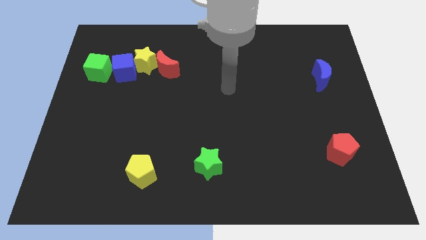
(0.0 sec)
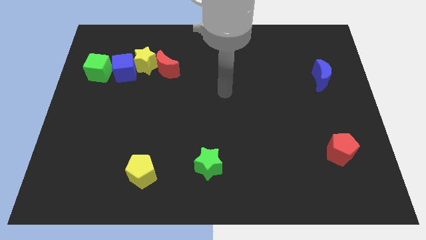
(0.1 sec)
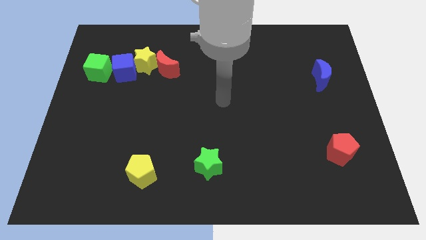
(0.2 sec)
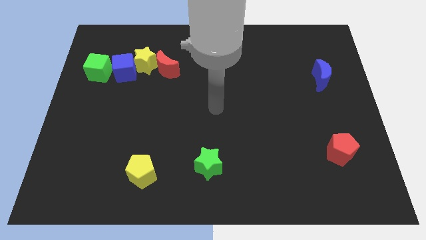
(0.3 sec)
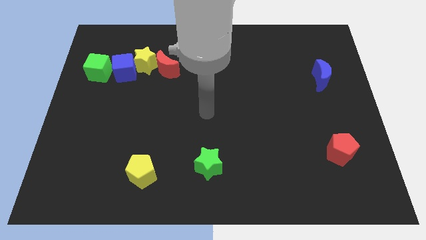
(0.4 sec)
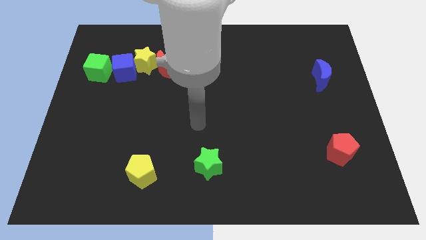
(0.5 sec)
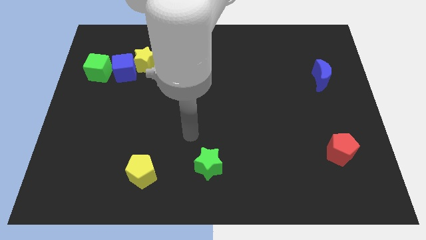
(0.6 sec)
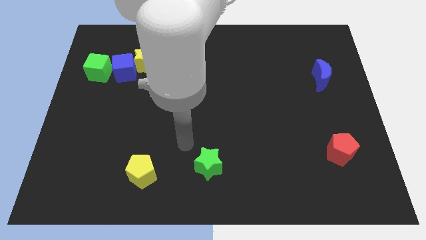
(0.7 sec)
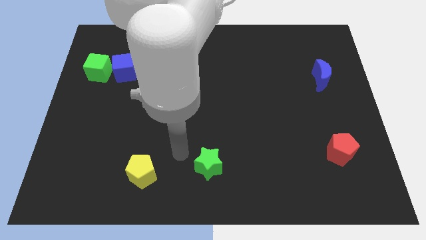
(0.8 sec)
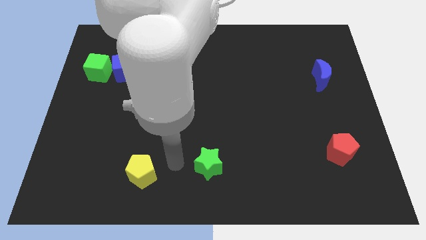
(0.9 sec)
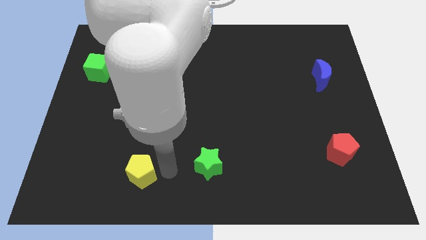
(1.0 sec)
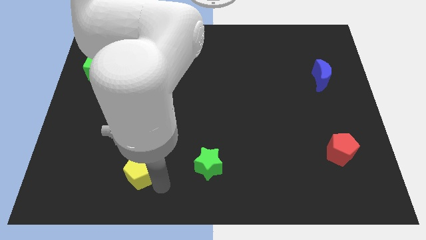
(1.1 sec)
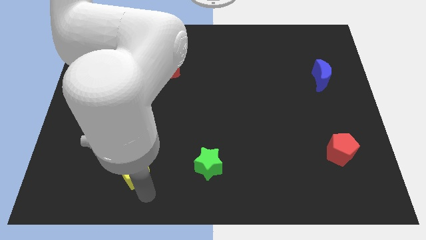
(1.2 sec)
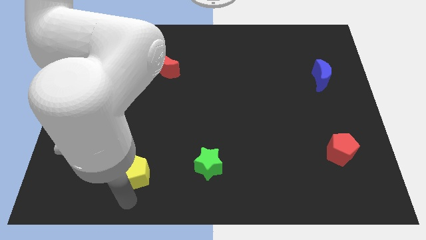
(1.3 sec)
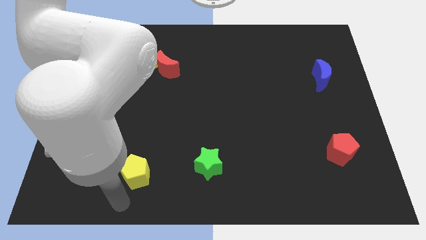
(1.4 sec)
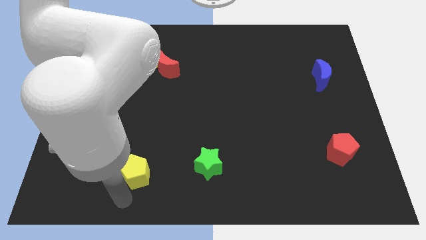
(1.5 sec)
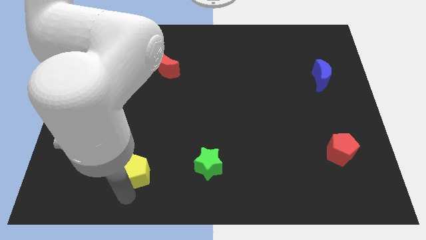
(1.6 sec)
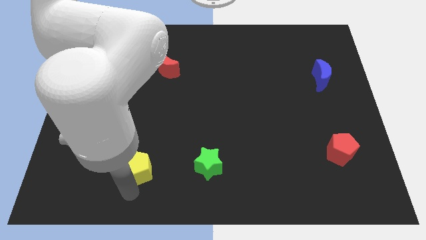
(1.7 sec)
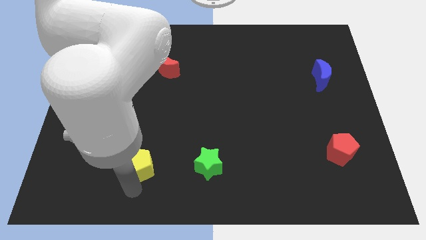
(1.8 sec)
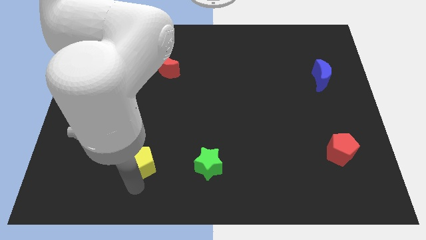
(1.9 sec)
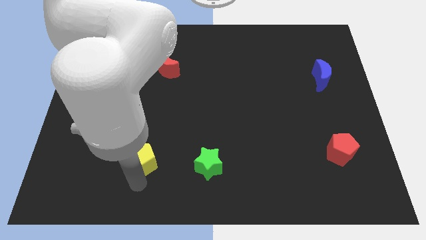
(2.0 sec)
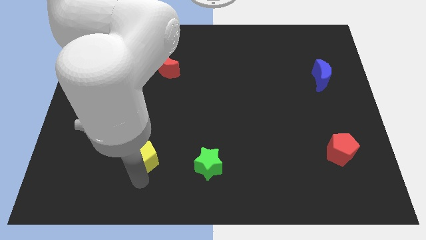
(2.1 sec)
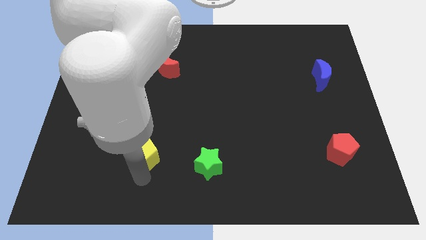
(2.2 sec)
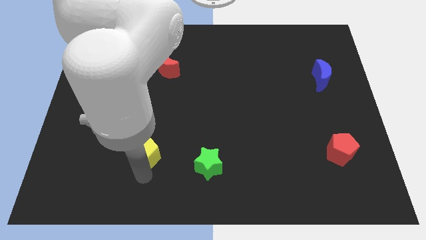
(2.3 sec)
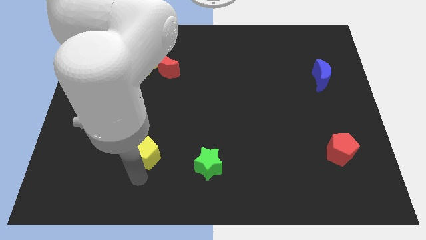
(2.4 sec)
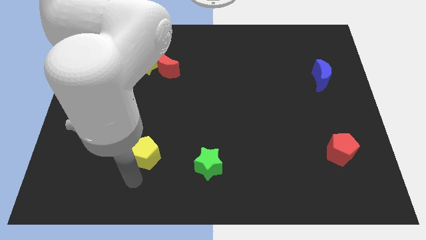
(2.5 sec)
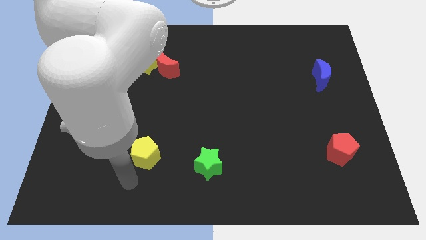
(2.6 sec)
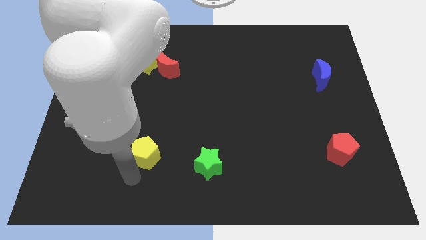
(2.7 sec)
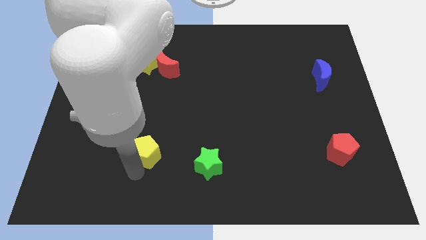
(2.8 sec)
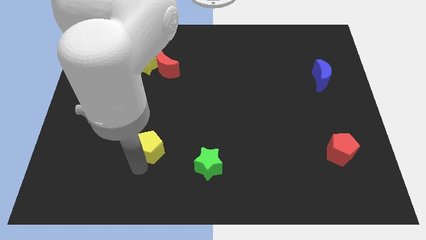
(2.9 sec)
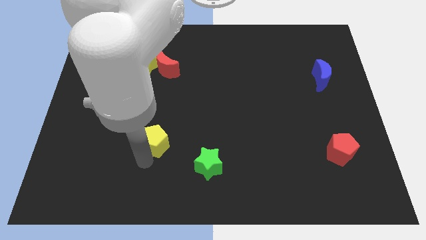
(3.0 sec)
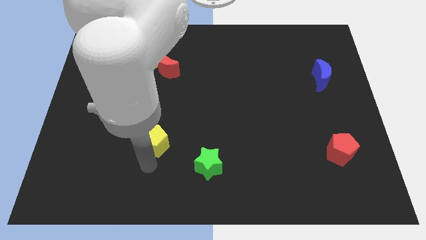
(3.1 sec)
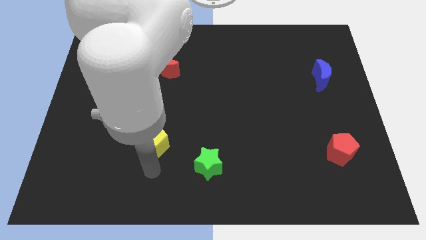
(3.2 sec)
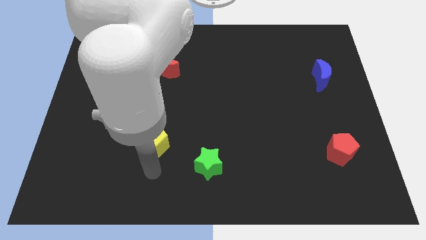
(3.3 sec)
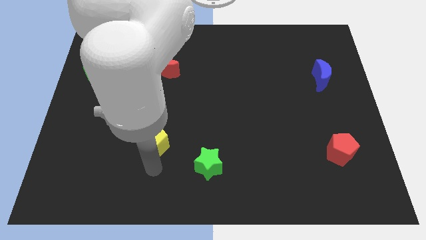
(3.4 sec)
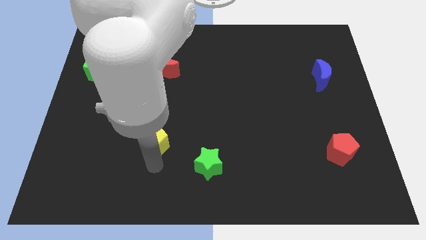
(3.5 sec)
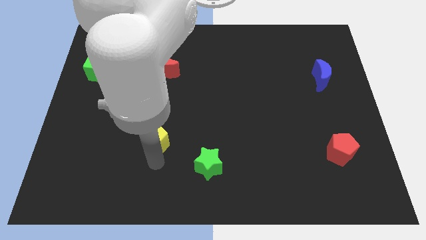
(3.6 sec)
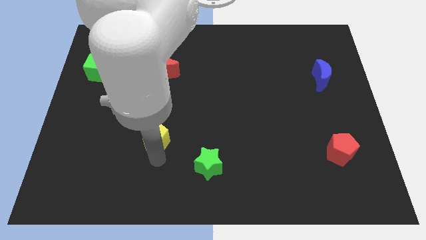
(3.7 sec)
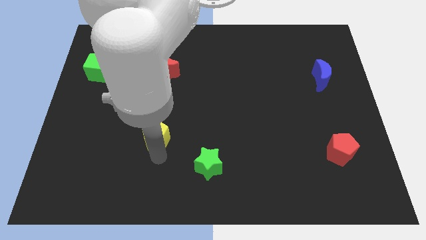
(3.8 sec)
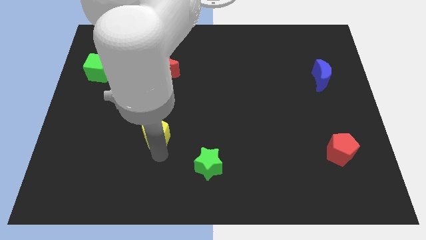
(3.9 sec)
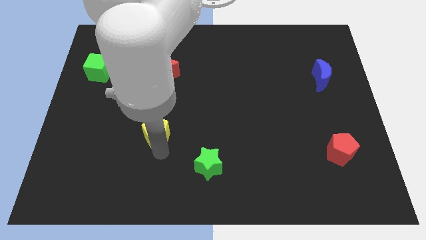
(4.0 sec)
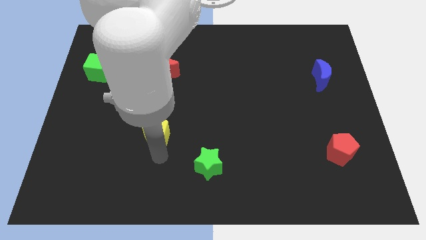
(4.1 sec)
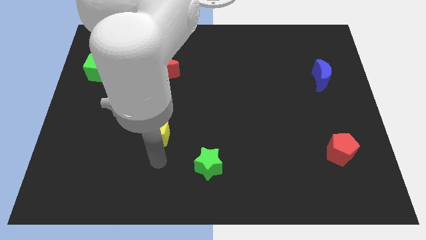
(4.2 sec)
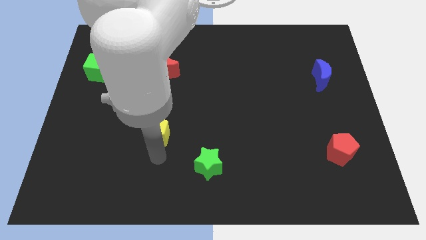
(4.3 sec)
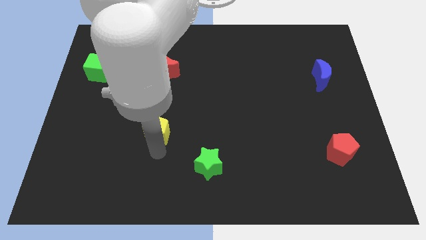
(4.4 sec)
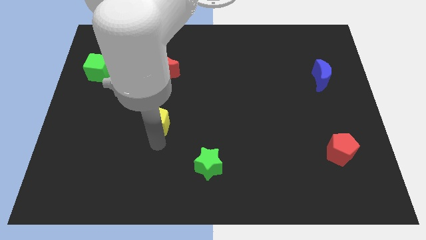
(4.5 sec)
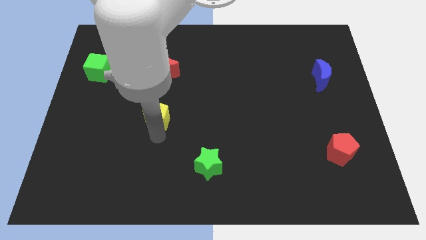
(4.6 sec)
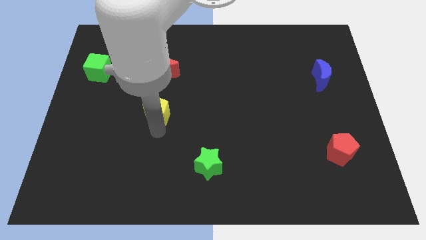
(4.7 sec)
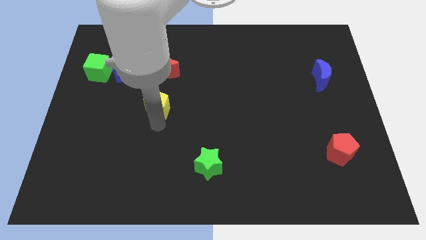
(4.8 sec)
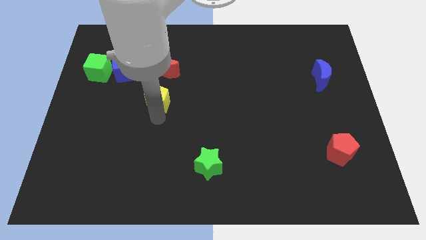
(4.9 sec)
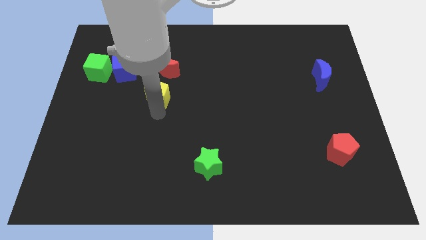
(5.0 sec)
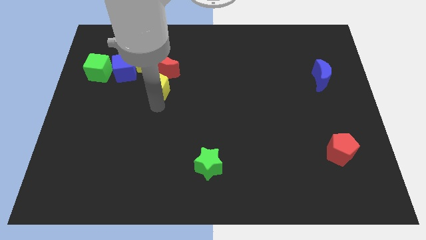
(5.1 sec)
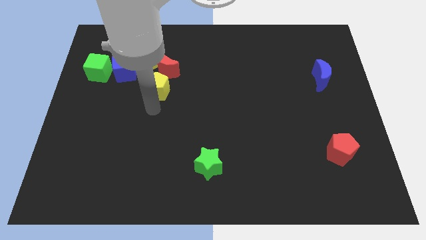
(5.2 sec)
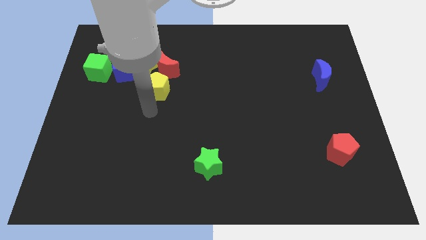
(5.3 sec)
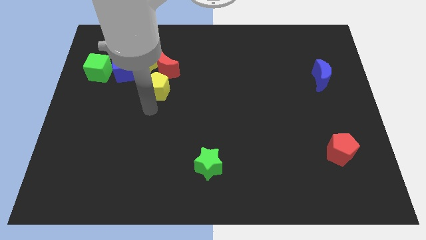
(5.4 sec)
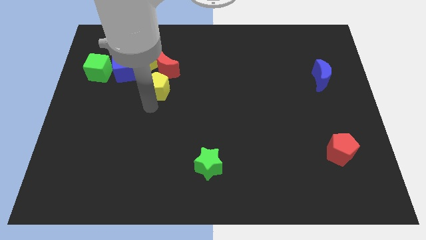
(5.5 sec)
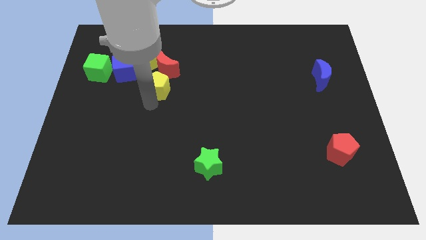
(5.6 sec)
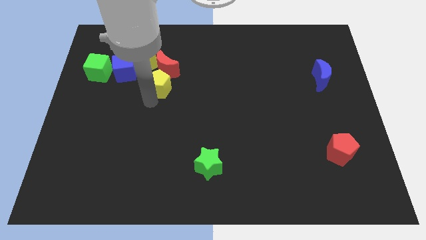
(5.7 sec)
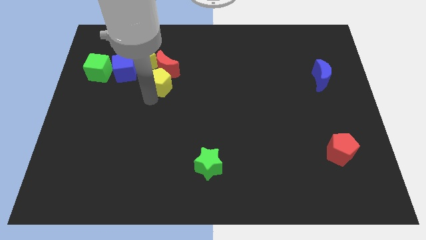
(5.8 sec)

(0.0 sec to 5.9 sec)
put the yellow pentagon next to the red moon

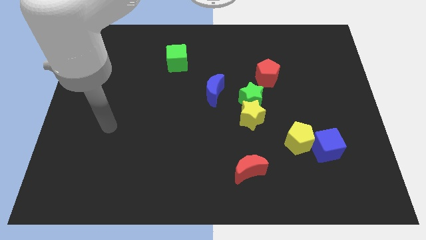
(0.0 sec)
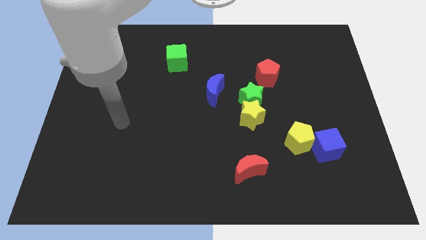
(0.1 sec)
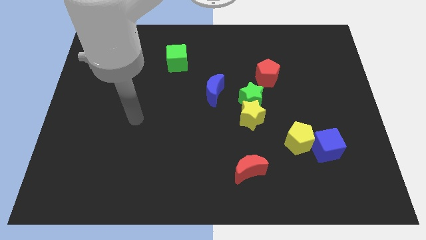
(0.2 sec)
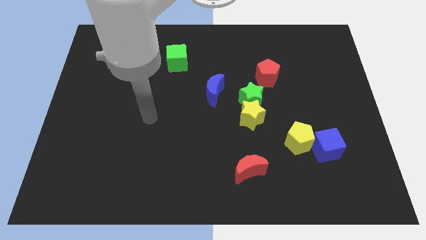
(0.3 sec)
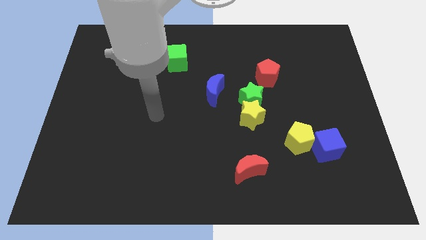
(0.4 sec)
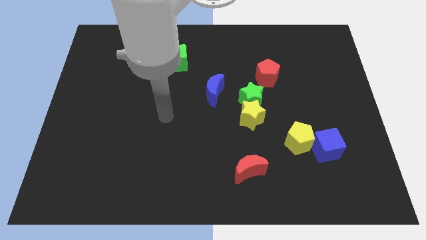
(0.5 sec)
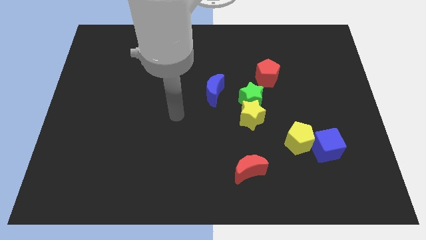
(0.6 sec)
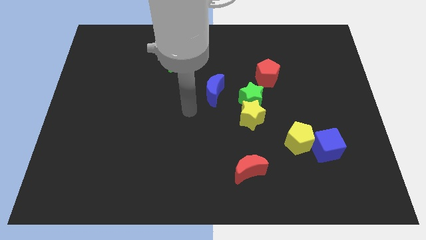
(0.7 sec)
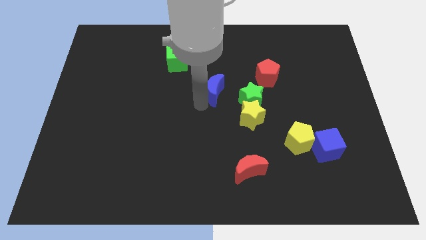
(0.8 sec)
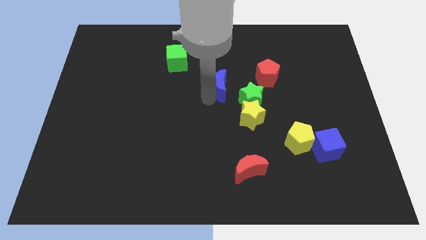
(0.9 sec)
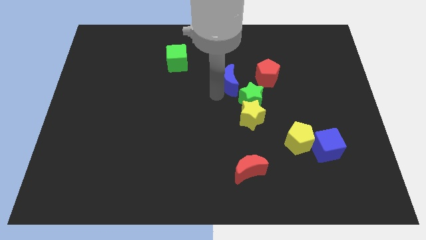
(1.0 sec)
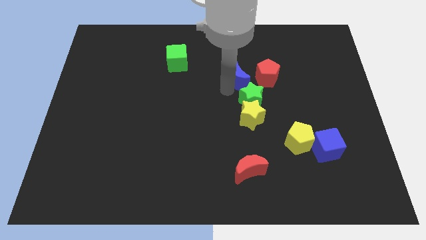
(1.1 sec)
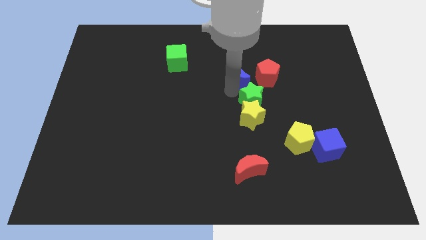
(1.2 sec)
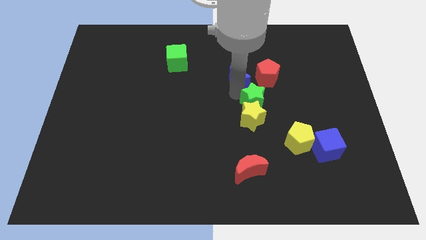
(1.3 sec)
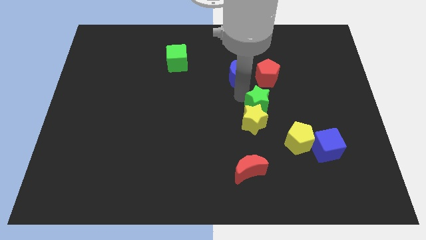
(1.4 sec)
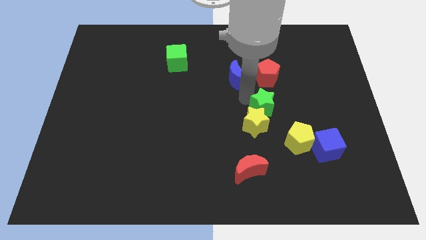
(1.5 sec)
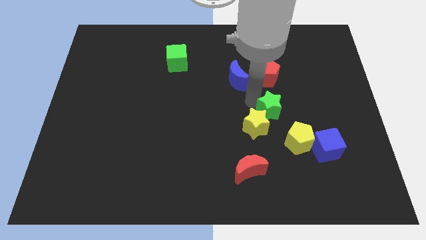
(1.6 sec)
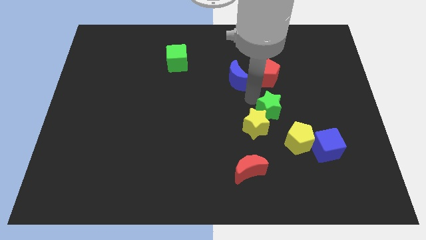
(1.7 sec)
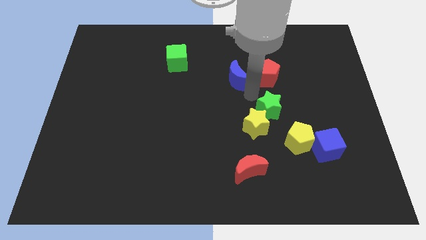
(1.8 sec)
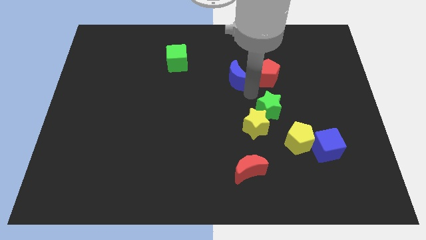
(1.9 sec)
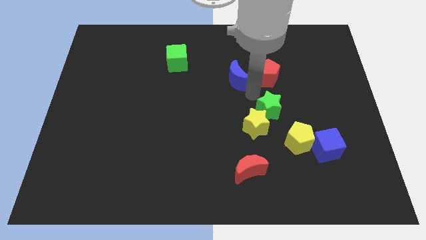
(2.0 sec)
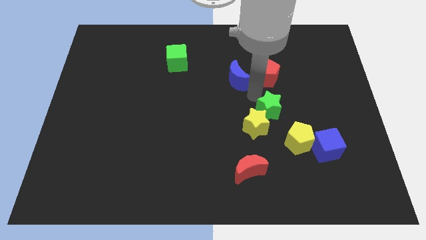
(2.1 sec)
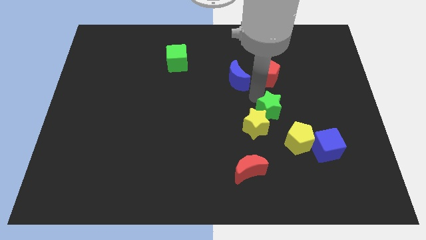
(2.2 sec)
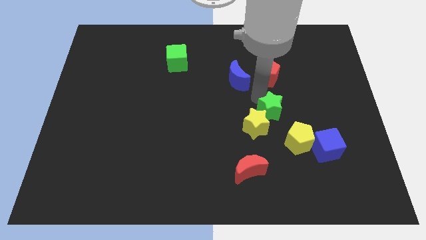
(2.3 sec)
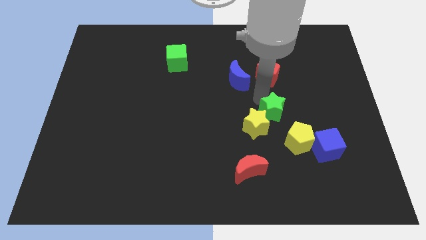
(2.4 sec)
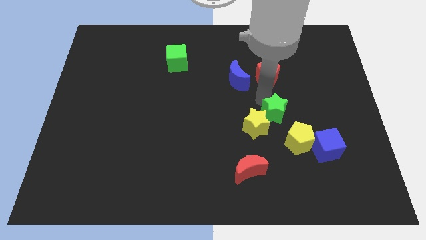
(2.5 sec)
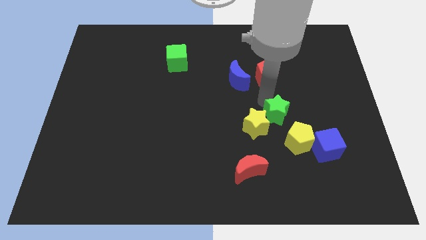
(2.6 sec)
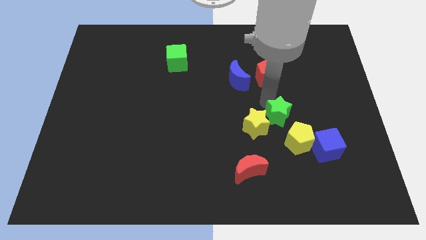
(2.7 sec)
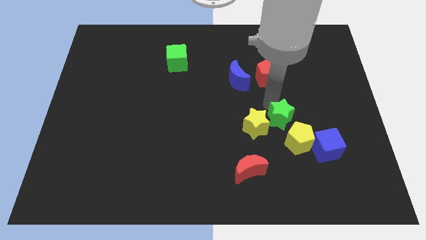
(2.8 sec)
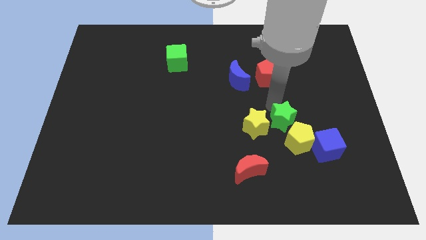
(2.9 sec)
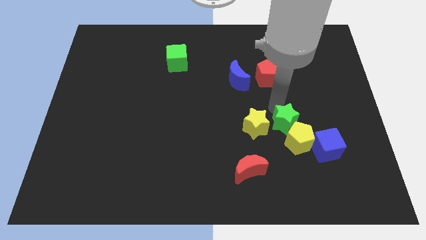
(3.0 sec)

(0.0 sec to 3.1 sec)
slide the green star close to the yellow pentagon
